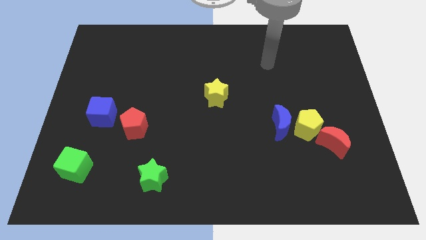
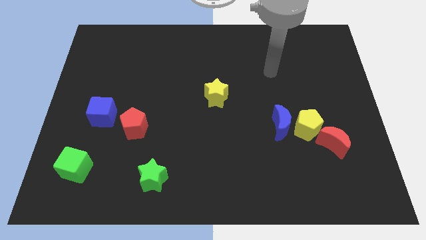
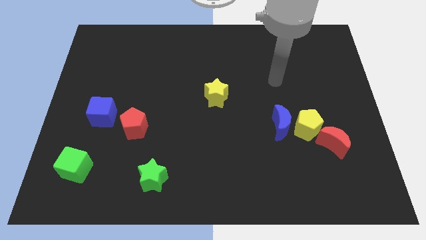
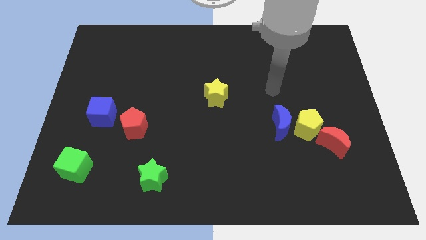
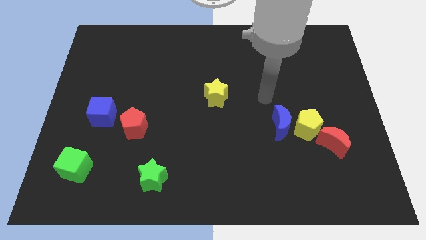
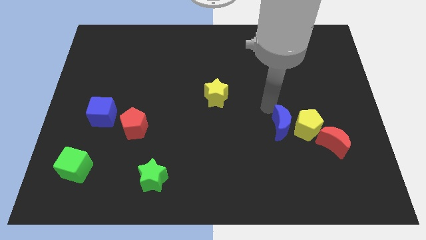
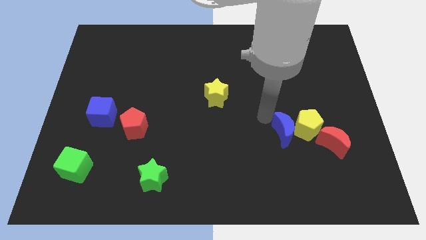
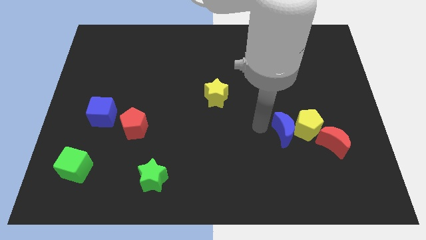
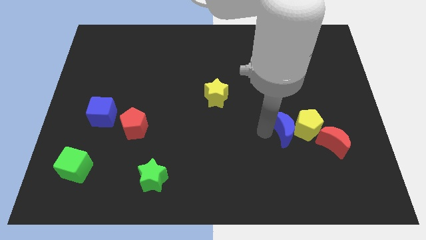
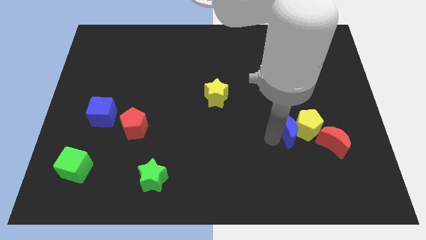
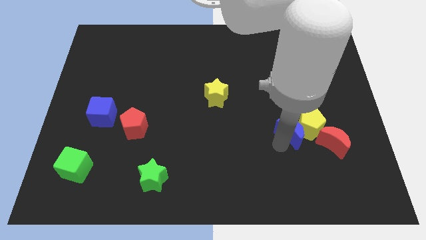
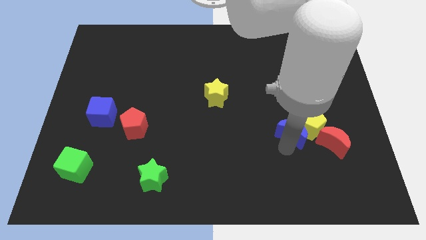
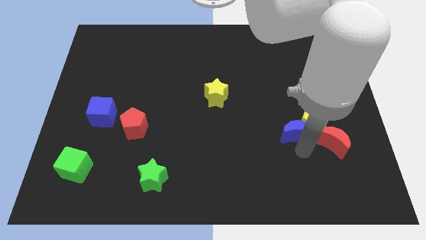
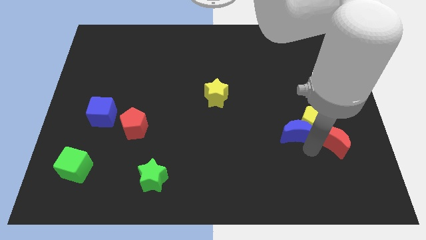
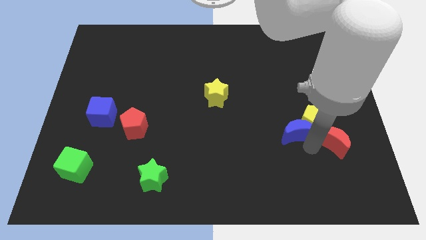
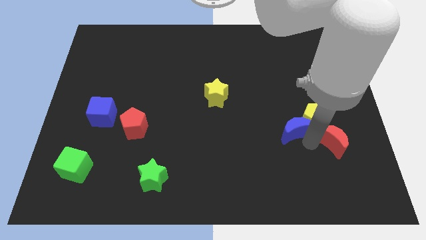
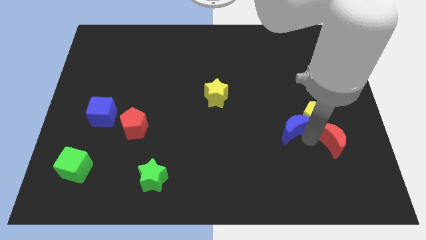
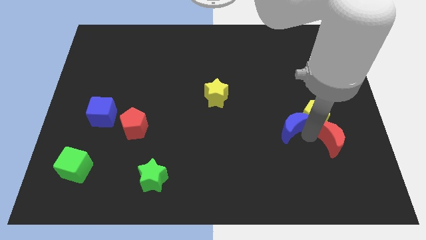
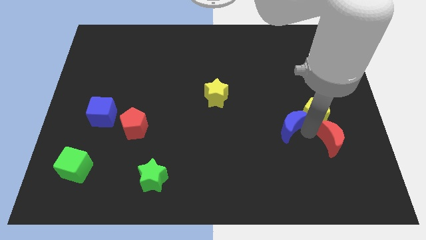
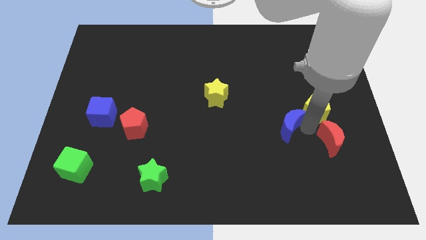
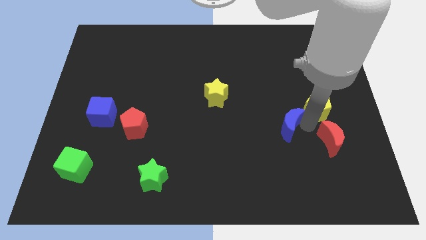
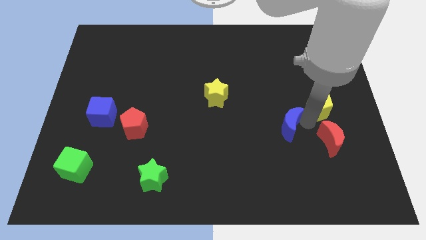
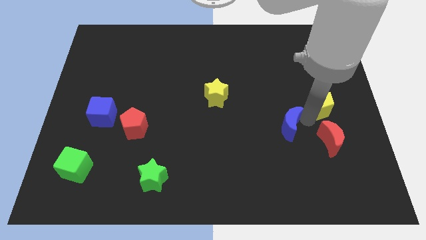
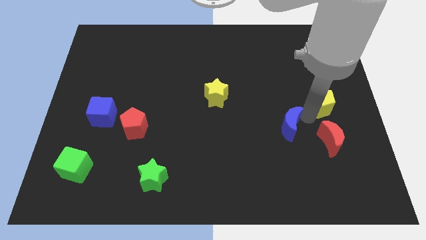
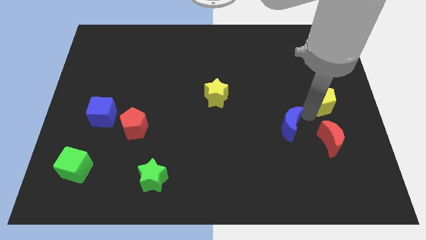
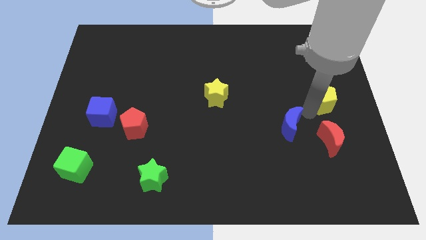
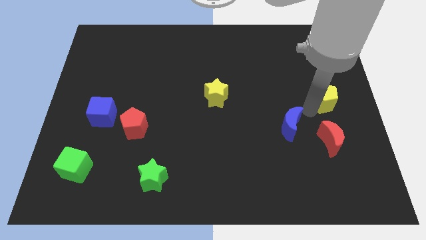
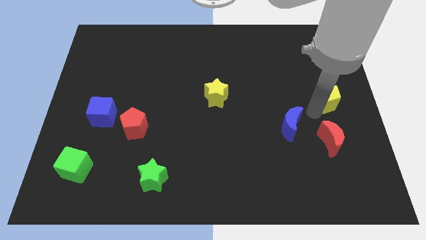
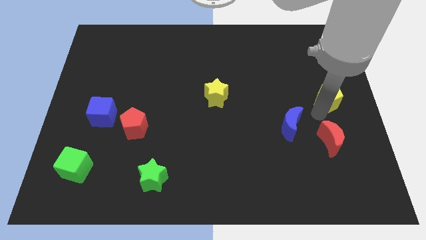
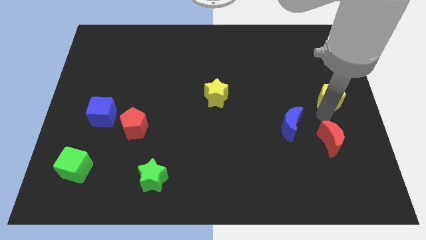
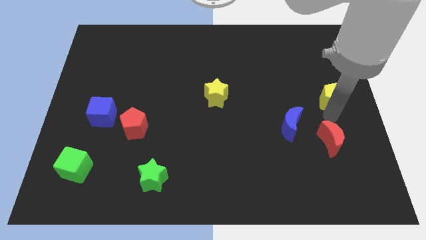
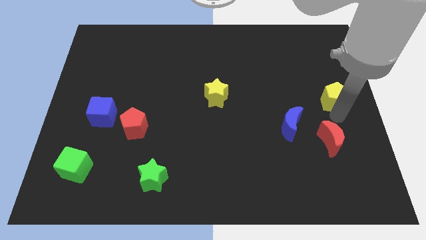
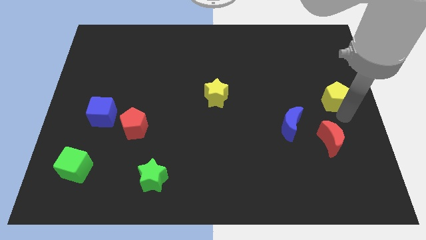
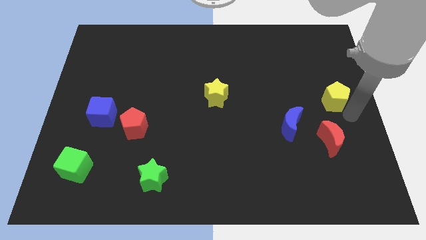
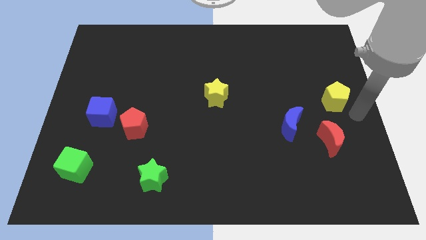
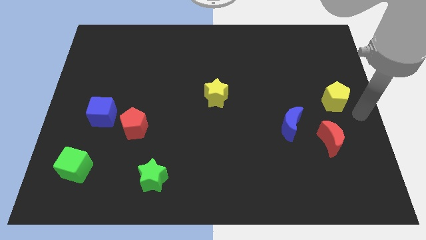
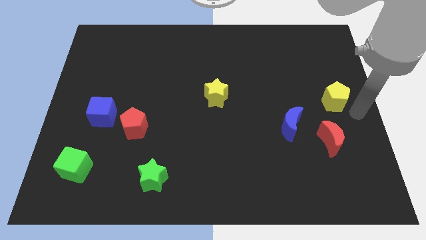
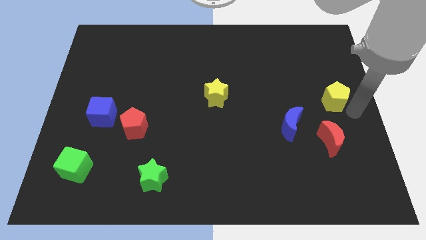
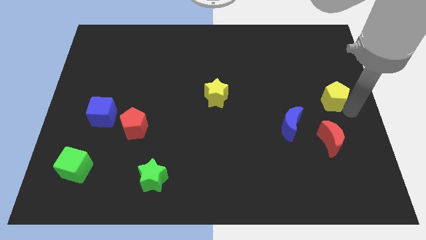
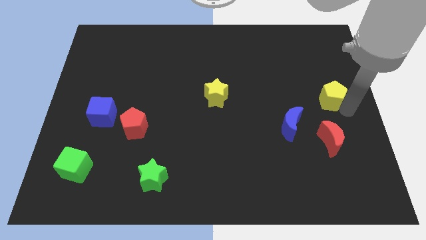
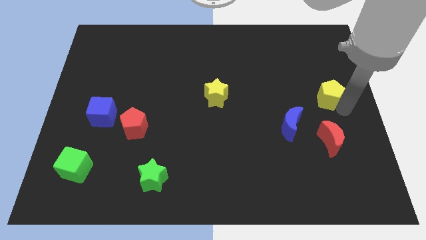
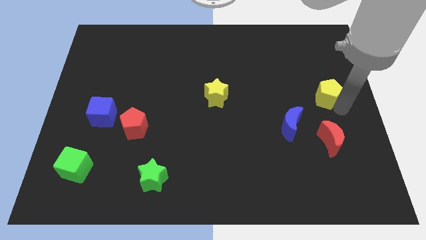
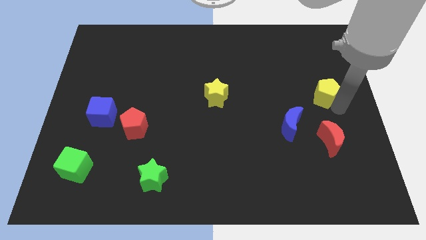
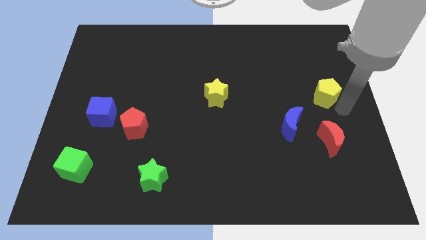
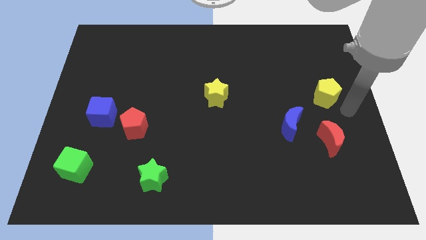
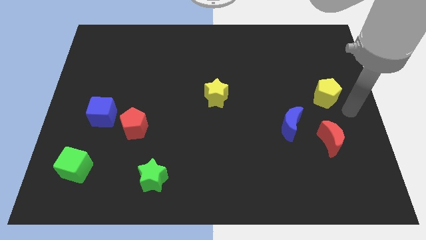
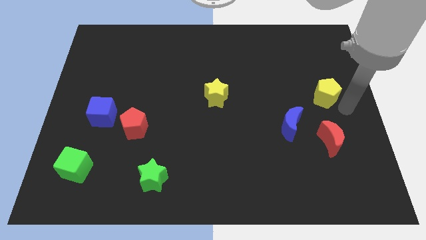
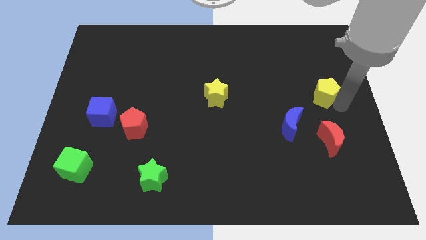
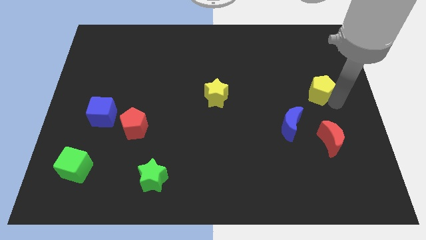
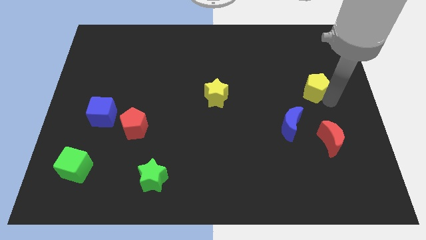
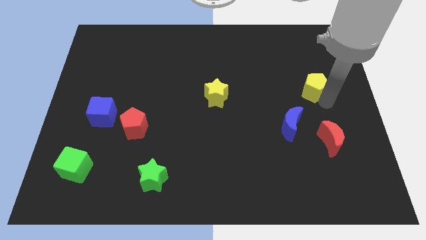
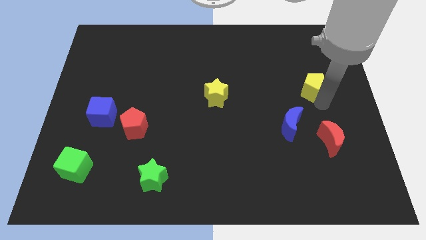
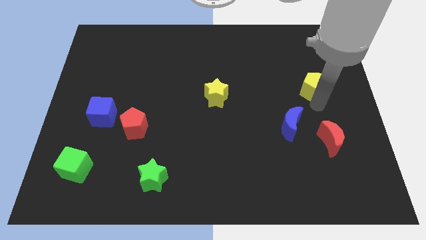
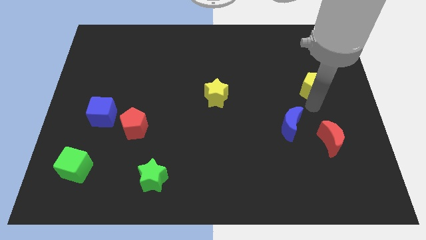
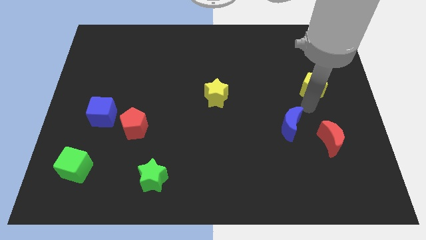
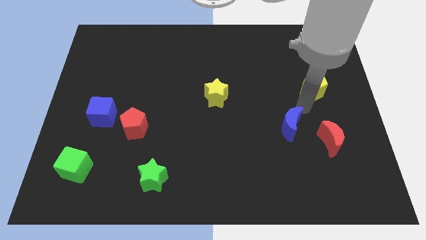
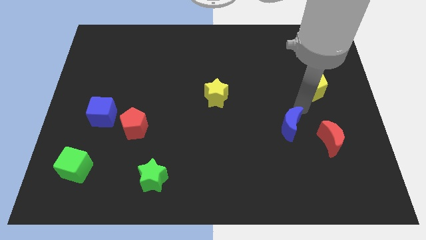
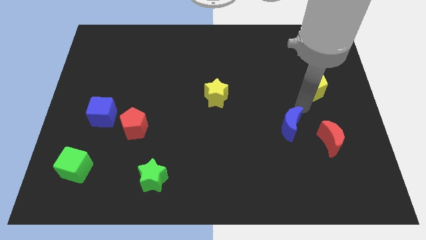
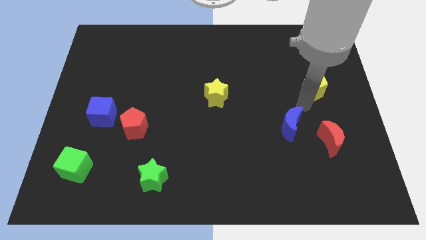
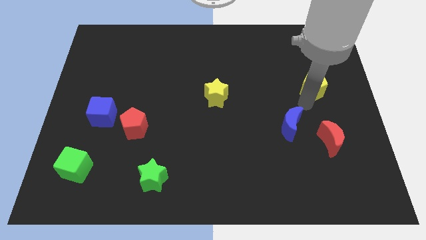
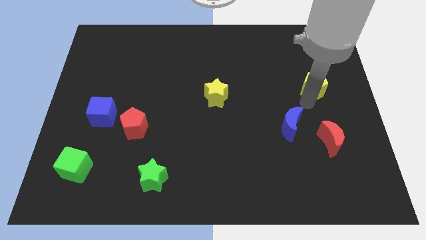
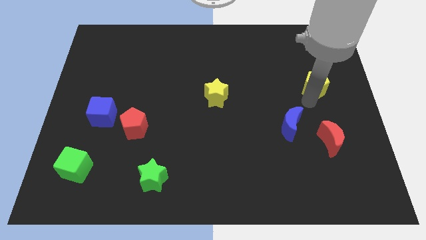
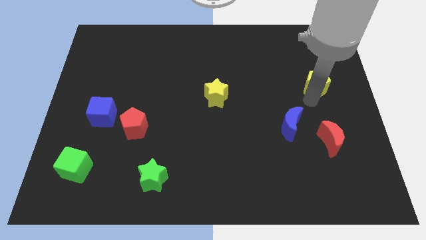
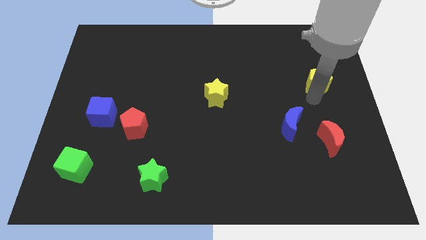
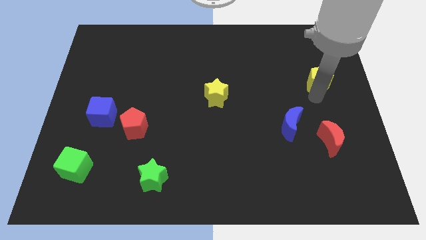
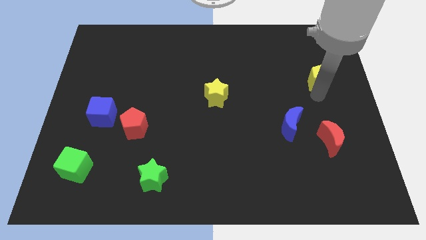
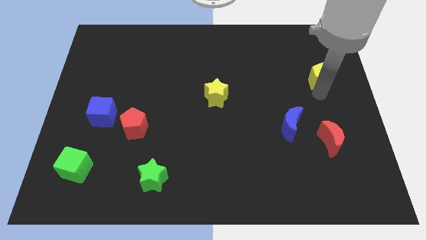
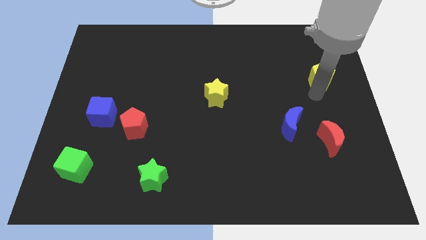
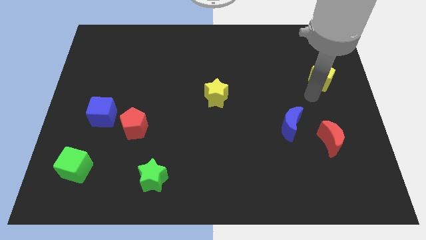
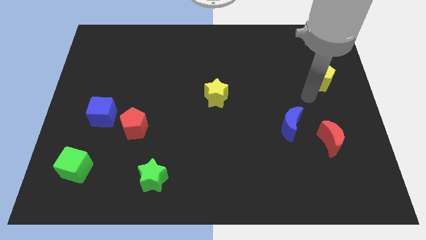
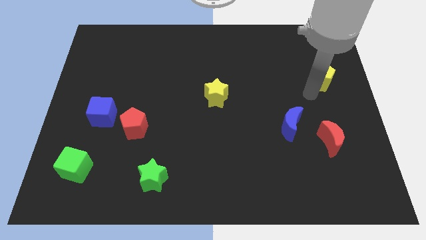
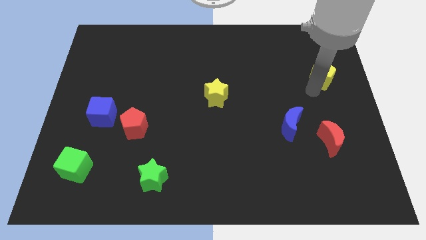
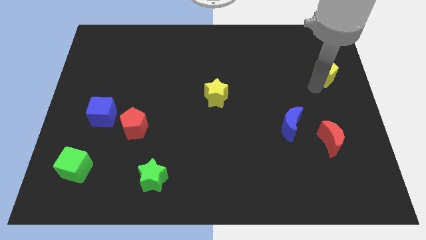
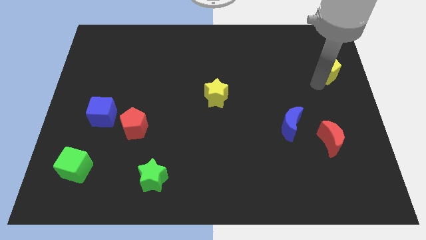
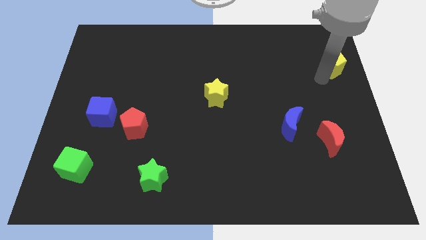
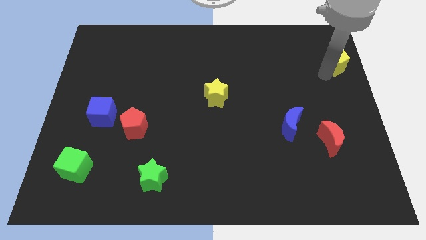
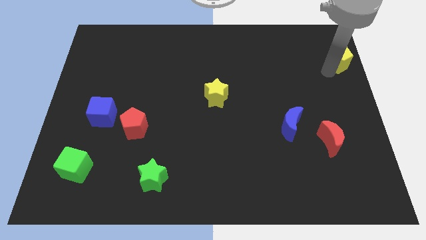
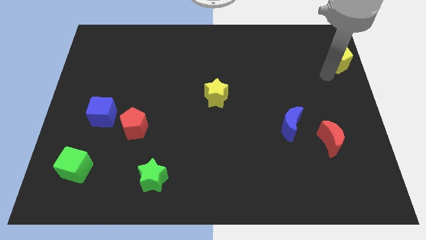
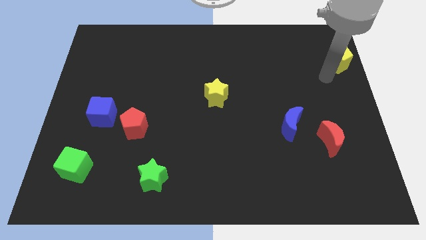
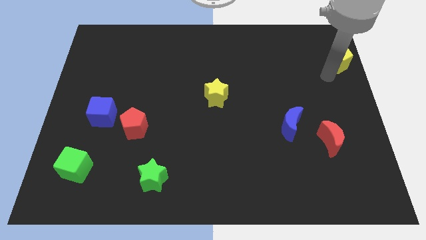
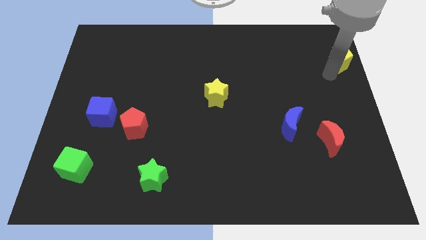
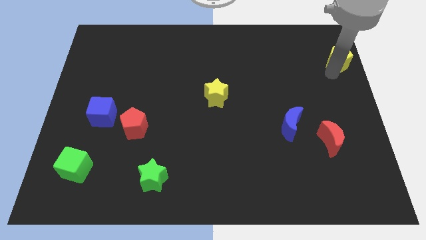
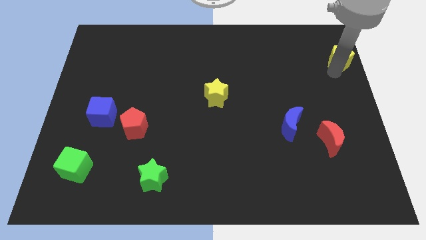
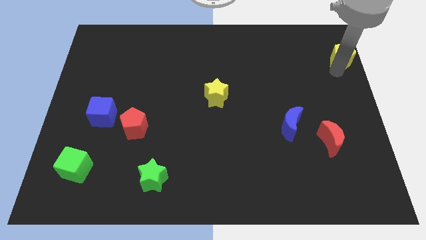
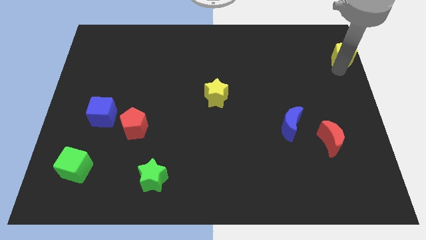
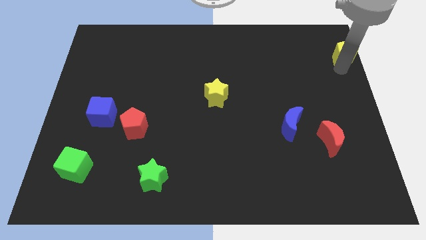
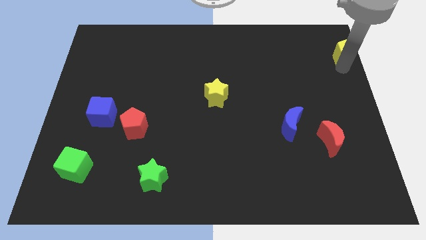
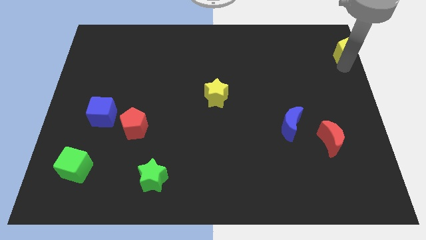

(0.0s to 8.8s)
slide the yellow pentagon to the top right corner
